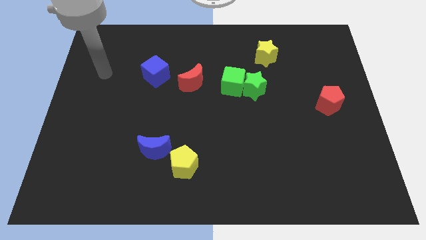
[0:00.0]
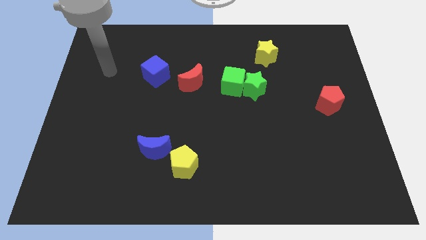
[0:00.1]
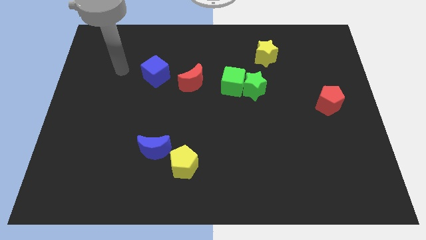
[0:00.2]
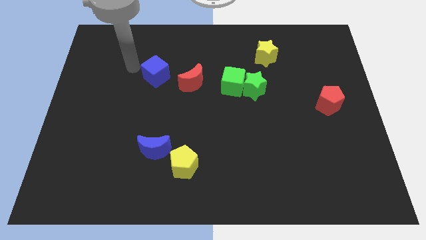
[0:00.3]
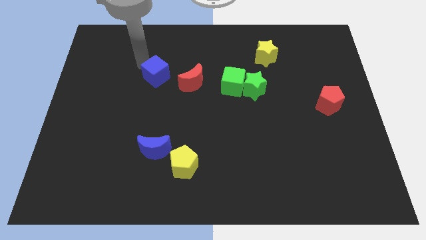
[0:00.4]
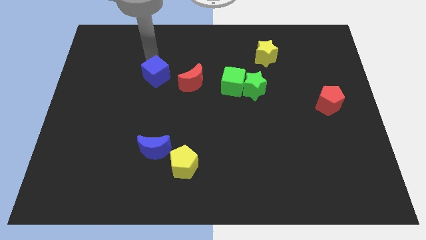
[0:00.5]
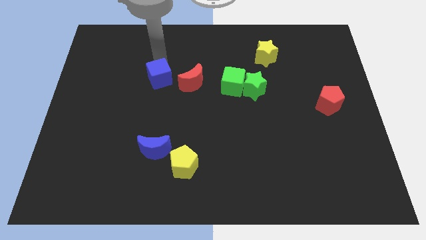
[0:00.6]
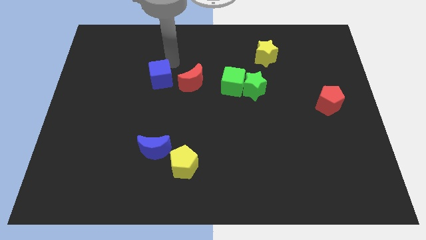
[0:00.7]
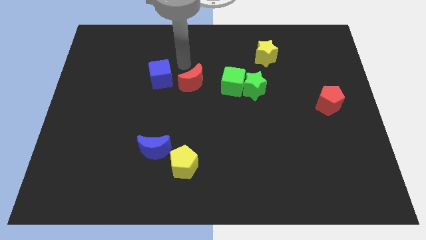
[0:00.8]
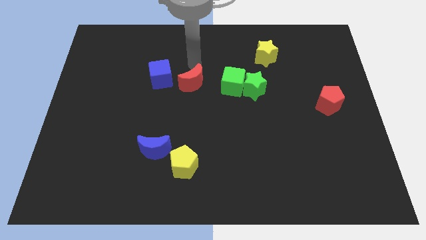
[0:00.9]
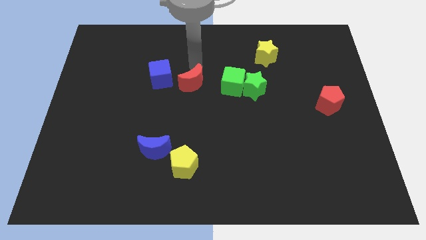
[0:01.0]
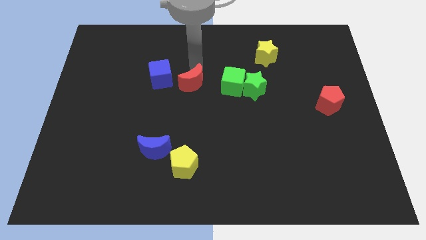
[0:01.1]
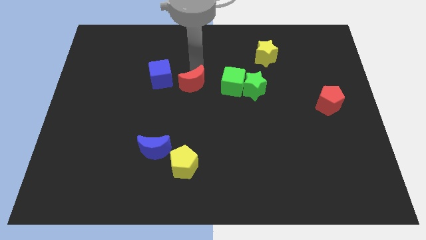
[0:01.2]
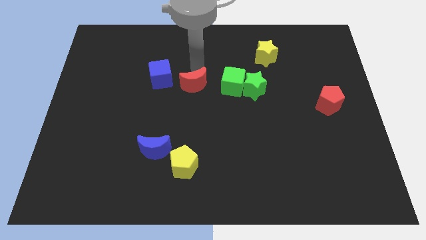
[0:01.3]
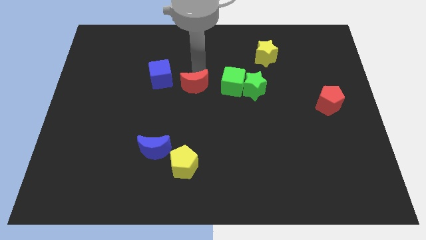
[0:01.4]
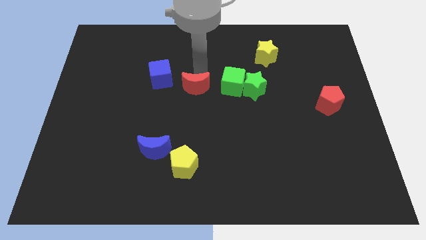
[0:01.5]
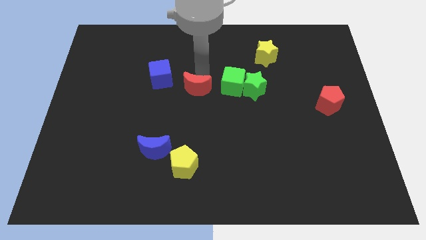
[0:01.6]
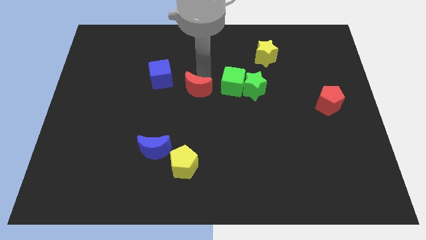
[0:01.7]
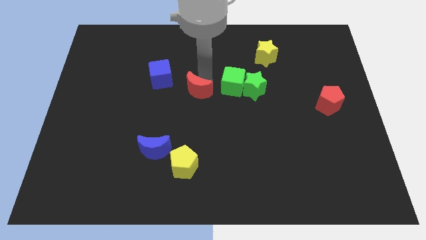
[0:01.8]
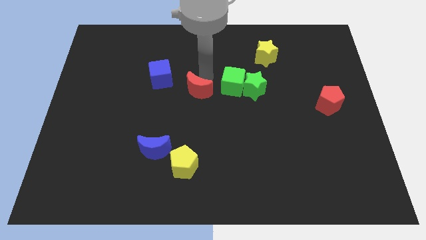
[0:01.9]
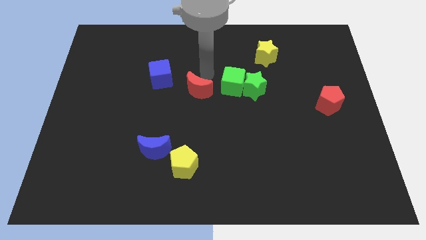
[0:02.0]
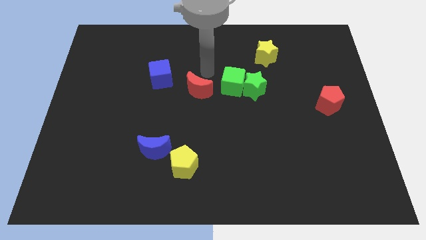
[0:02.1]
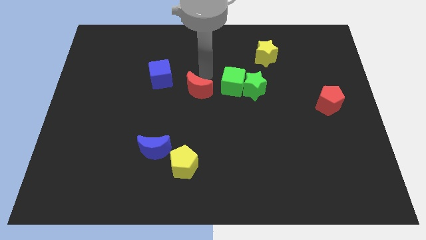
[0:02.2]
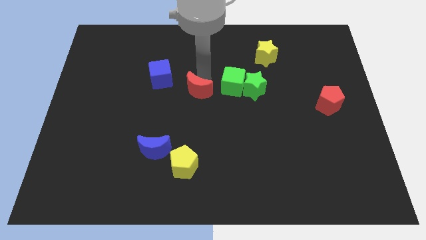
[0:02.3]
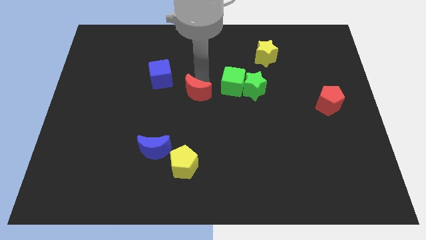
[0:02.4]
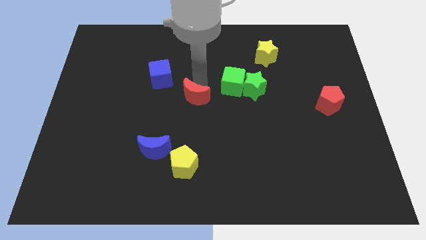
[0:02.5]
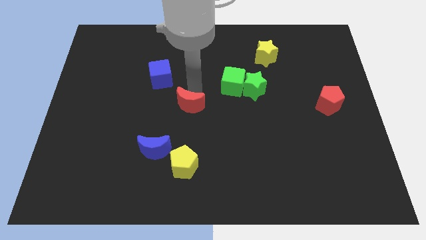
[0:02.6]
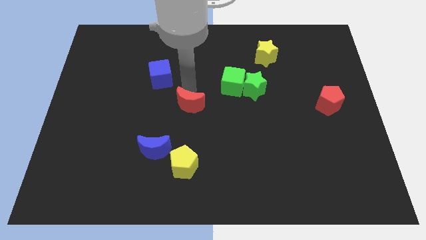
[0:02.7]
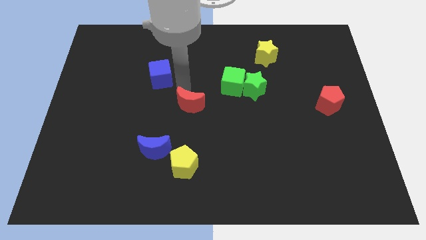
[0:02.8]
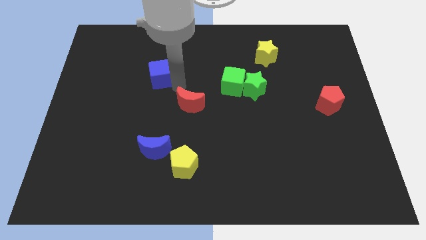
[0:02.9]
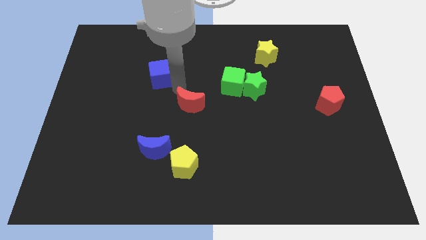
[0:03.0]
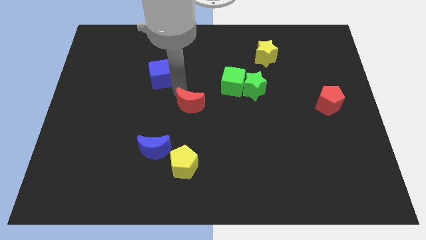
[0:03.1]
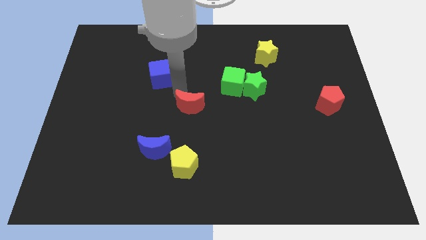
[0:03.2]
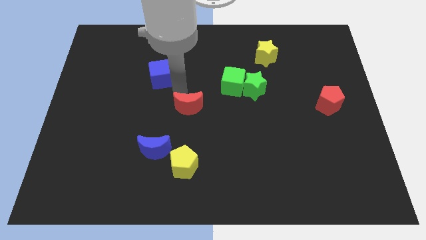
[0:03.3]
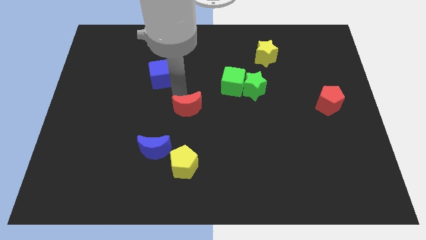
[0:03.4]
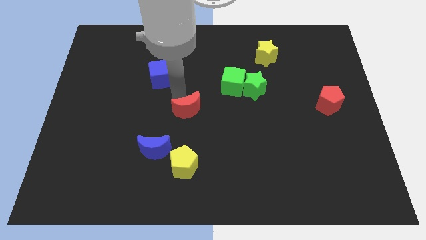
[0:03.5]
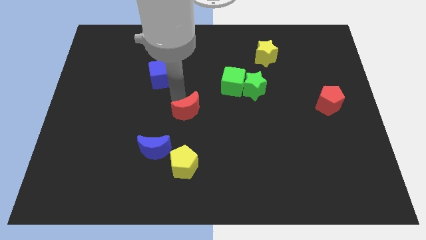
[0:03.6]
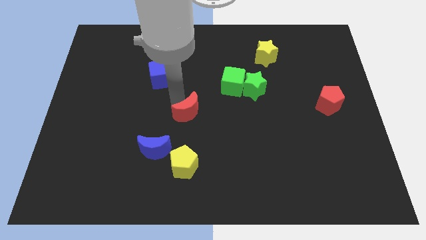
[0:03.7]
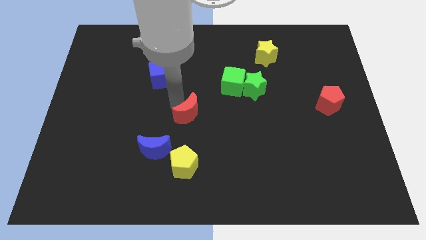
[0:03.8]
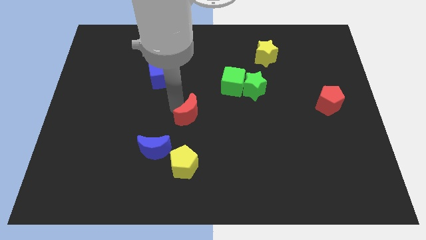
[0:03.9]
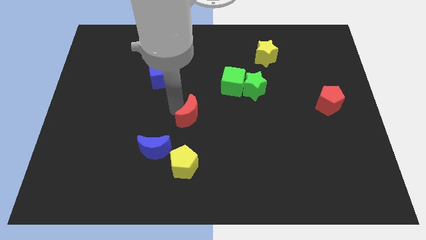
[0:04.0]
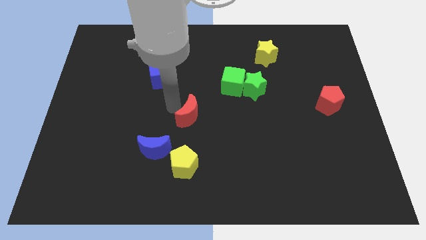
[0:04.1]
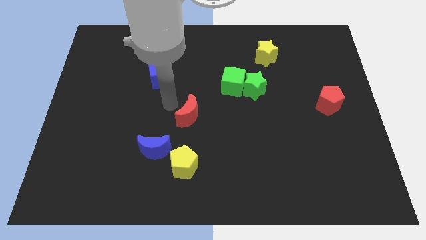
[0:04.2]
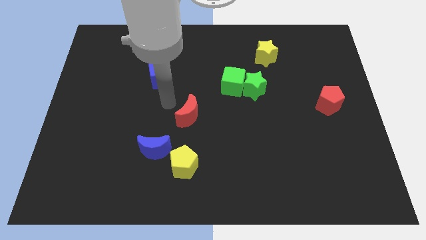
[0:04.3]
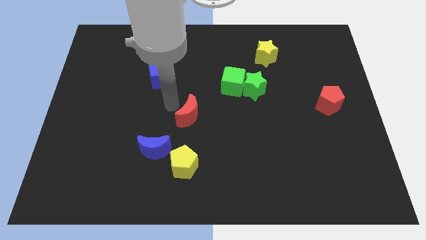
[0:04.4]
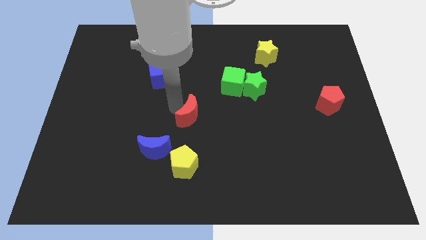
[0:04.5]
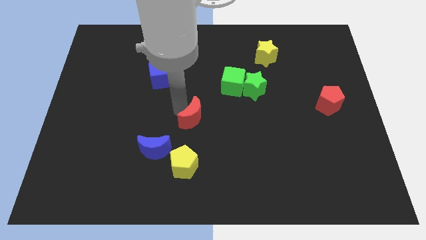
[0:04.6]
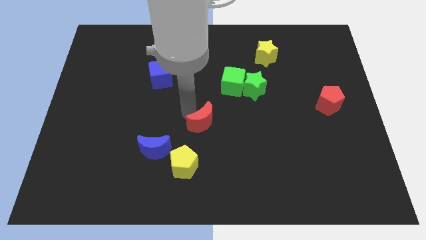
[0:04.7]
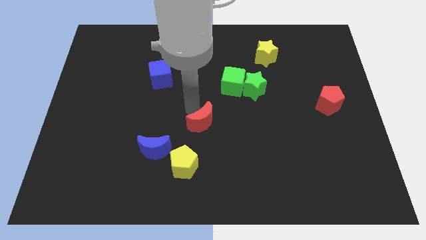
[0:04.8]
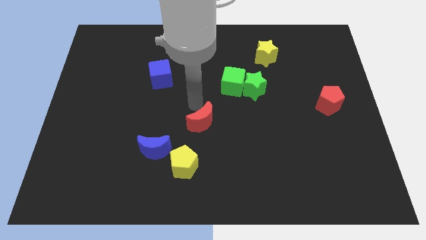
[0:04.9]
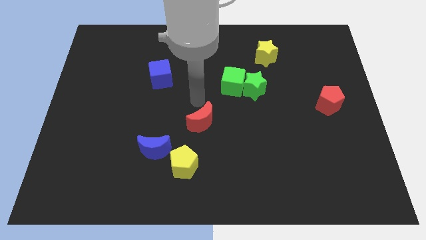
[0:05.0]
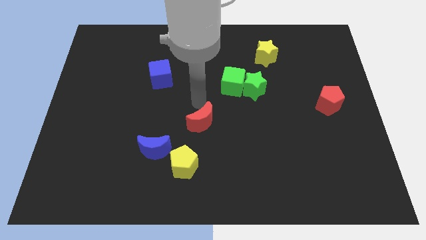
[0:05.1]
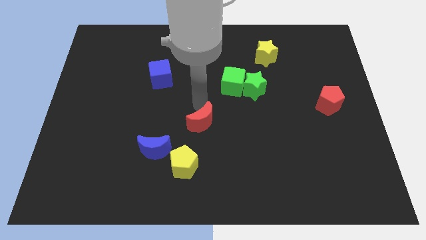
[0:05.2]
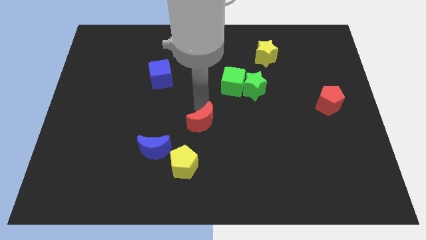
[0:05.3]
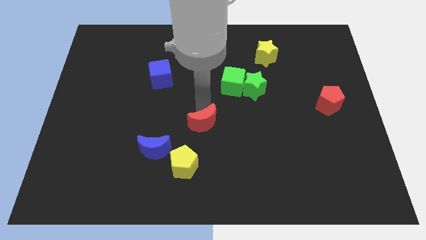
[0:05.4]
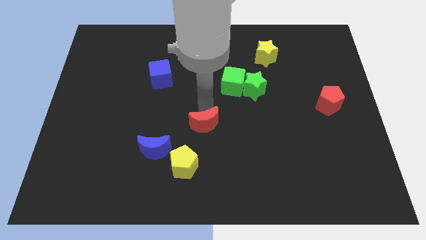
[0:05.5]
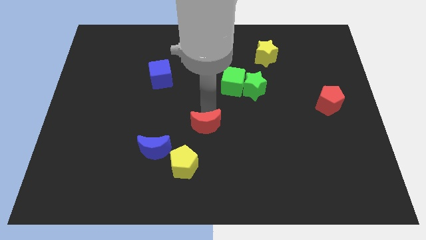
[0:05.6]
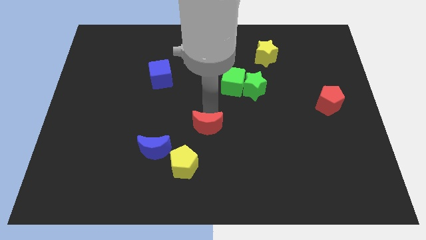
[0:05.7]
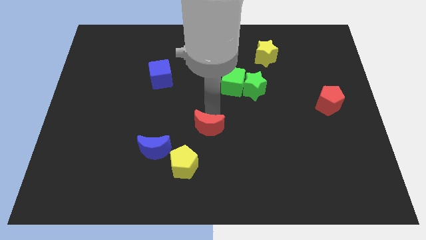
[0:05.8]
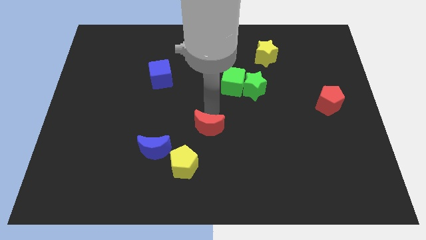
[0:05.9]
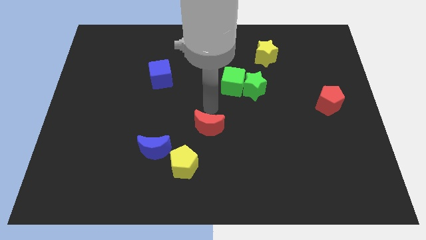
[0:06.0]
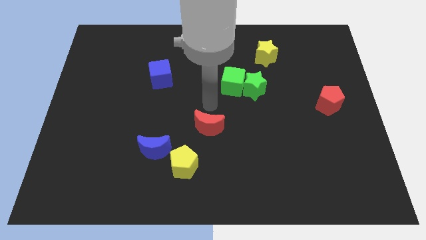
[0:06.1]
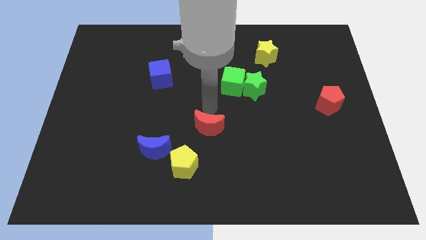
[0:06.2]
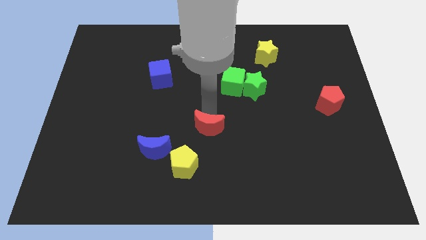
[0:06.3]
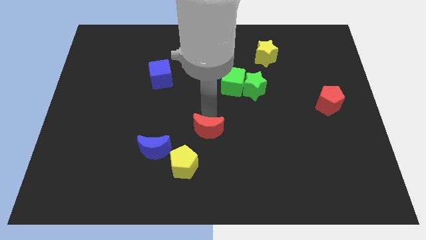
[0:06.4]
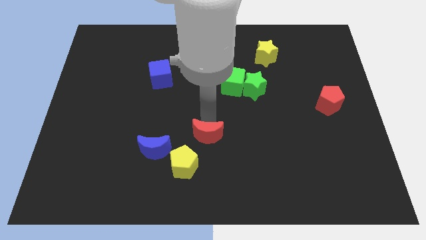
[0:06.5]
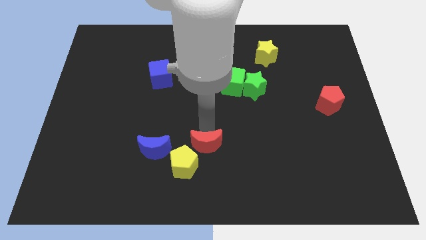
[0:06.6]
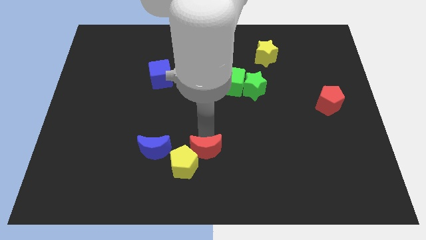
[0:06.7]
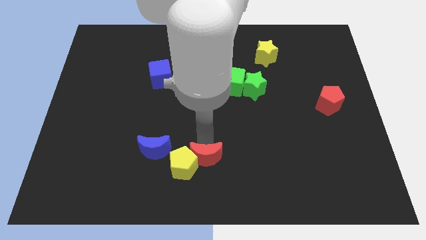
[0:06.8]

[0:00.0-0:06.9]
push the red moon to the bottom

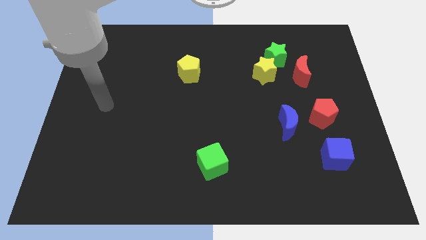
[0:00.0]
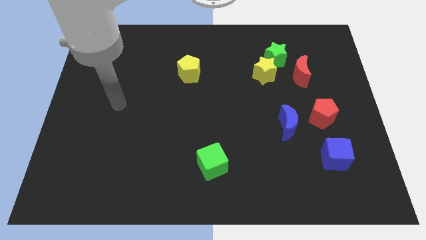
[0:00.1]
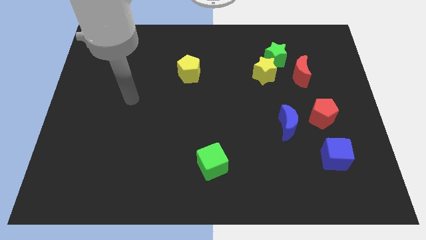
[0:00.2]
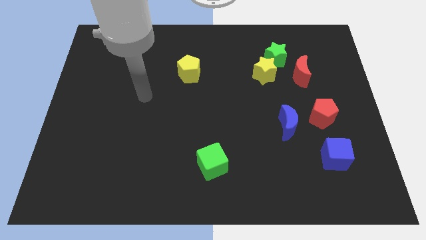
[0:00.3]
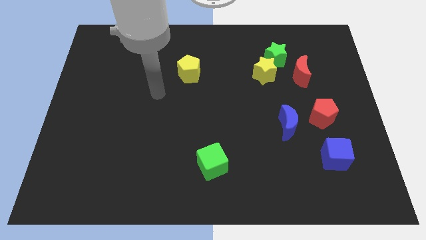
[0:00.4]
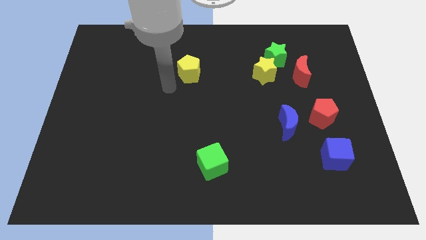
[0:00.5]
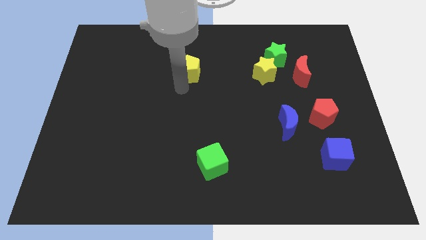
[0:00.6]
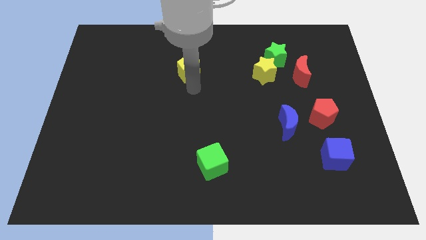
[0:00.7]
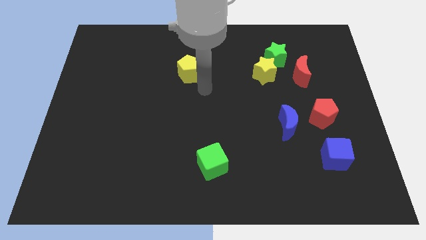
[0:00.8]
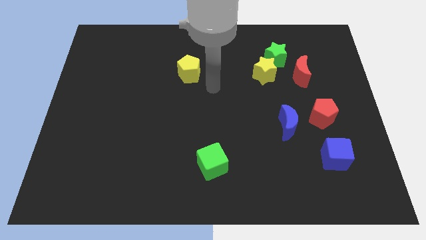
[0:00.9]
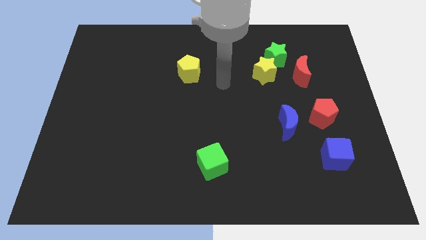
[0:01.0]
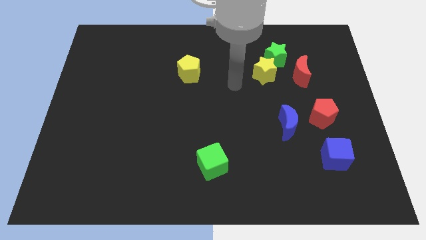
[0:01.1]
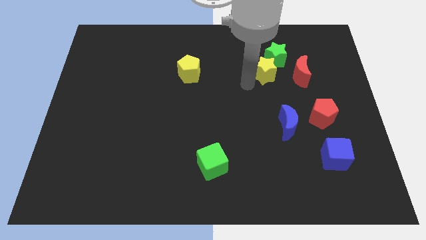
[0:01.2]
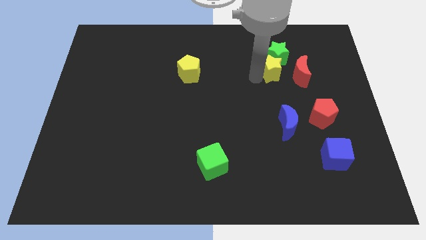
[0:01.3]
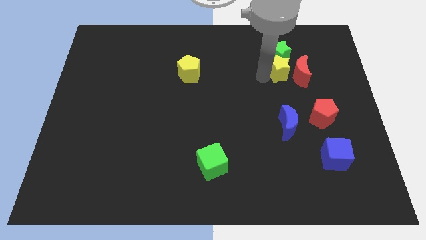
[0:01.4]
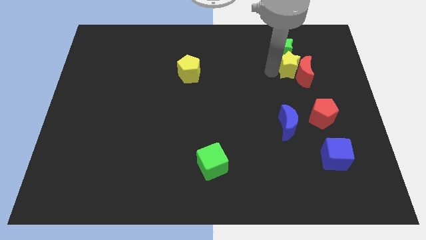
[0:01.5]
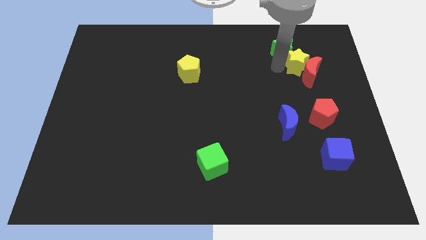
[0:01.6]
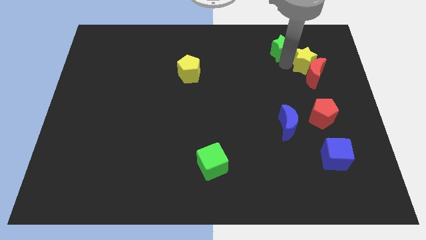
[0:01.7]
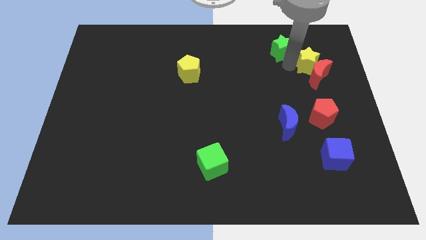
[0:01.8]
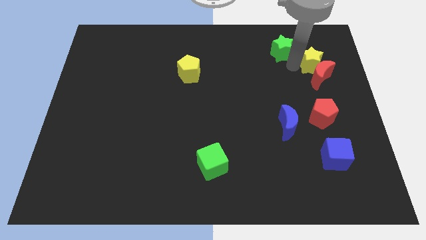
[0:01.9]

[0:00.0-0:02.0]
push the red moon to the right side of the board
